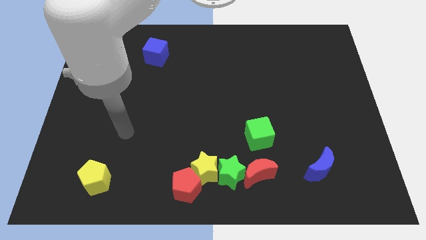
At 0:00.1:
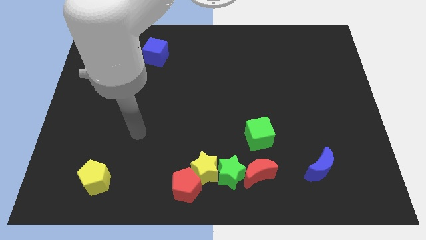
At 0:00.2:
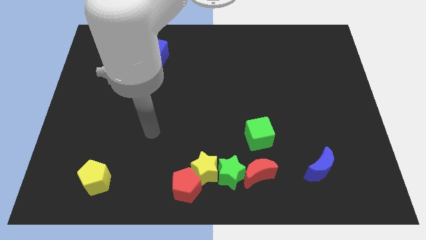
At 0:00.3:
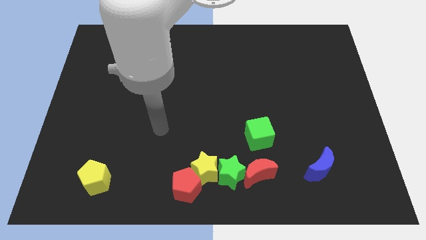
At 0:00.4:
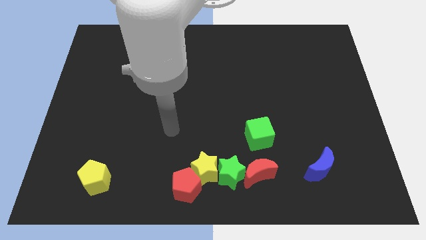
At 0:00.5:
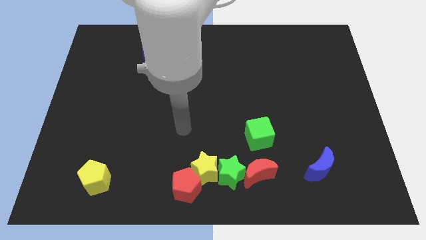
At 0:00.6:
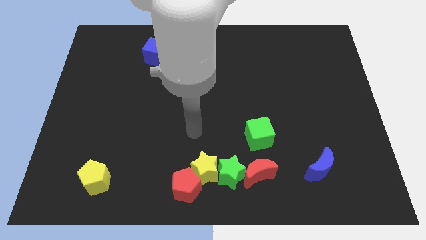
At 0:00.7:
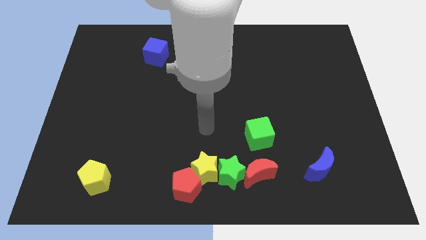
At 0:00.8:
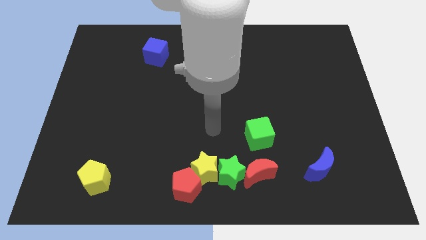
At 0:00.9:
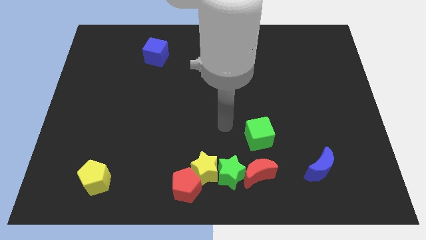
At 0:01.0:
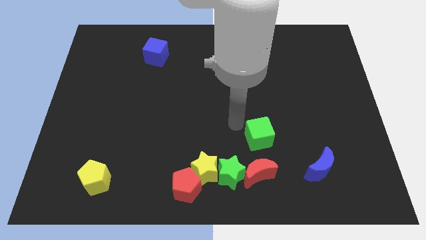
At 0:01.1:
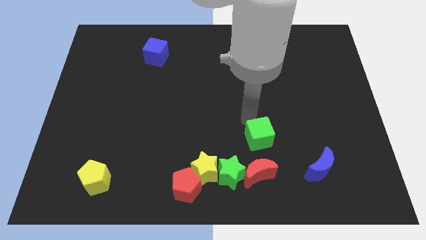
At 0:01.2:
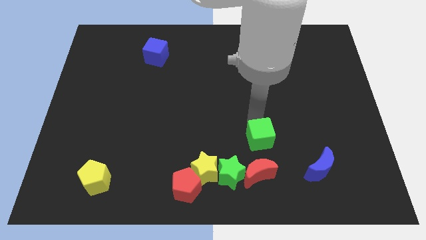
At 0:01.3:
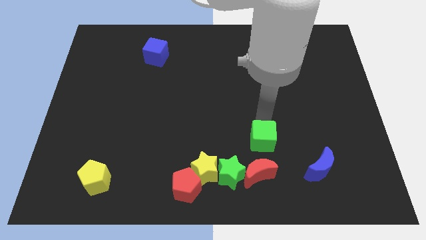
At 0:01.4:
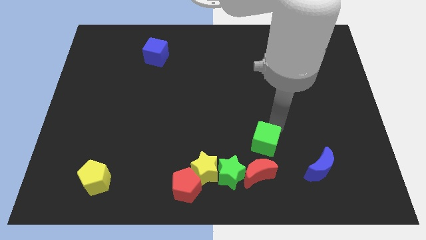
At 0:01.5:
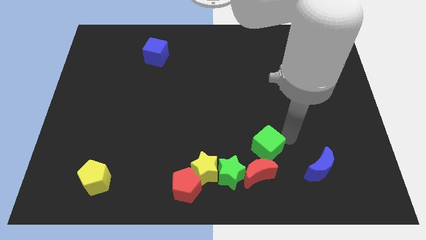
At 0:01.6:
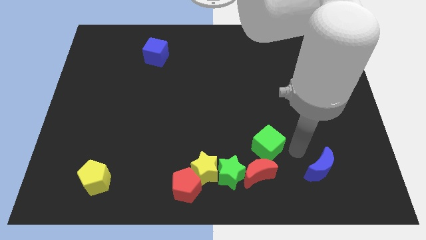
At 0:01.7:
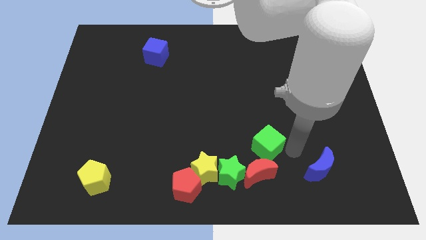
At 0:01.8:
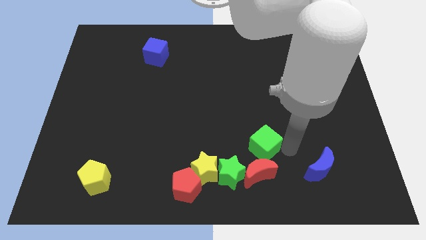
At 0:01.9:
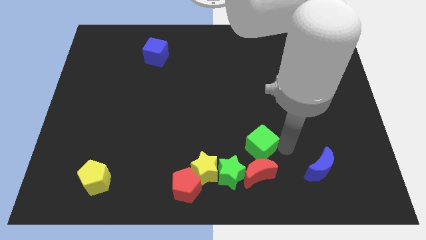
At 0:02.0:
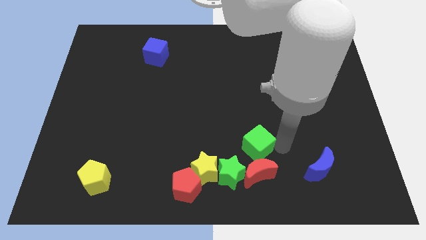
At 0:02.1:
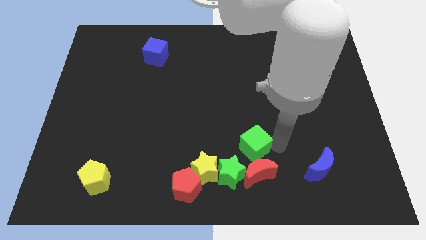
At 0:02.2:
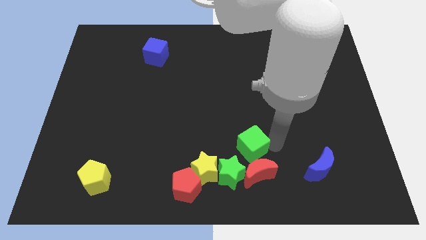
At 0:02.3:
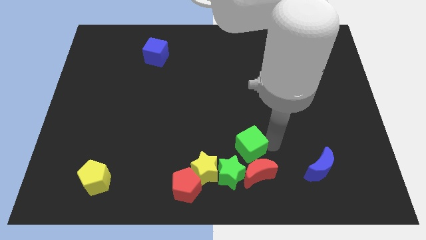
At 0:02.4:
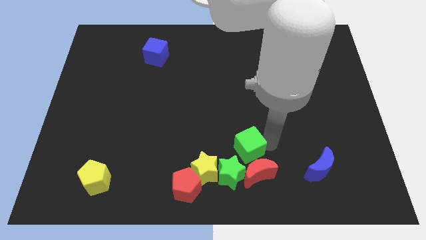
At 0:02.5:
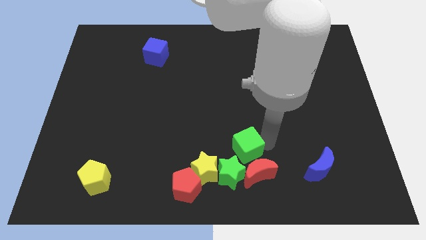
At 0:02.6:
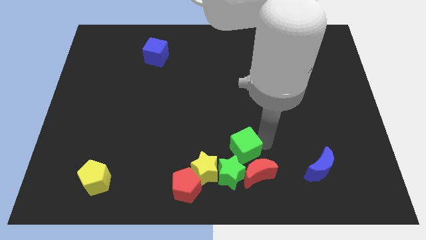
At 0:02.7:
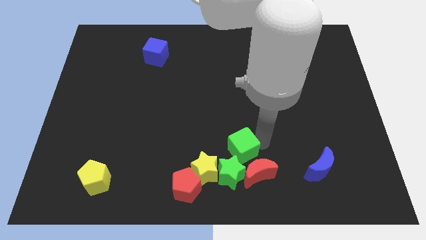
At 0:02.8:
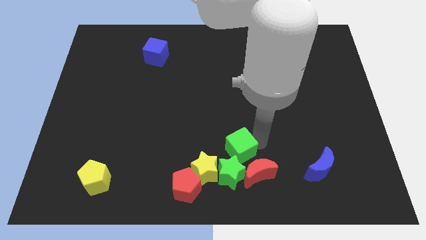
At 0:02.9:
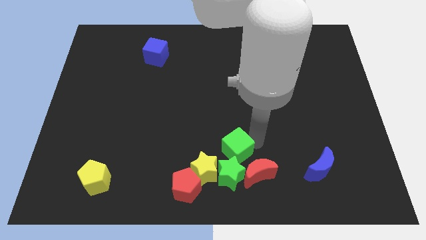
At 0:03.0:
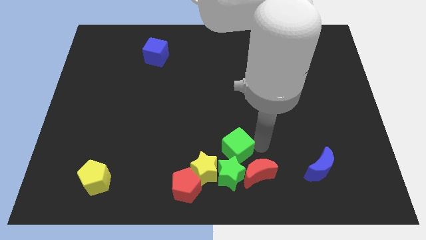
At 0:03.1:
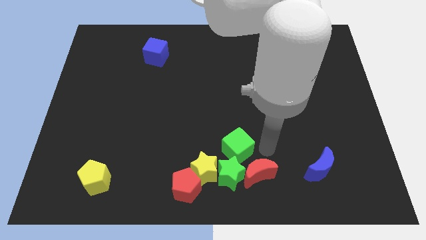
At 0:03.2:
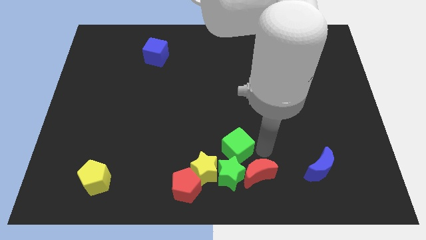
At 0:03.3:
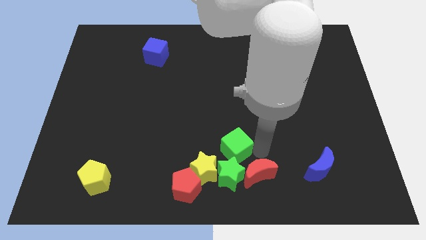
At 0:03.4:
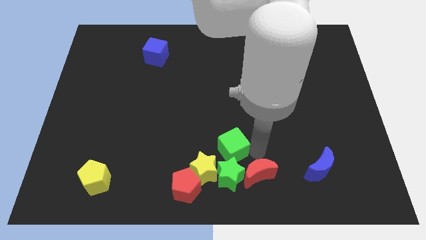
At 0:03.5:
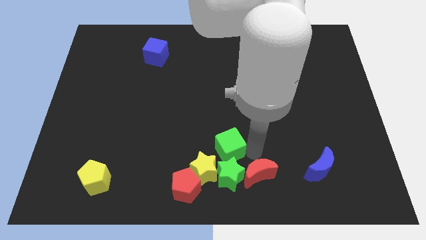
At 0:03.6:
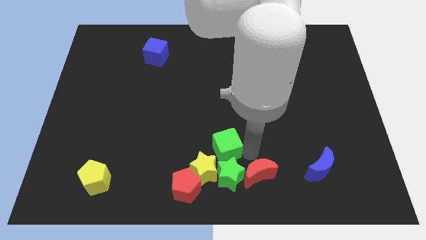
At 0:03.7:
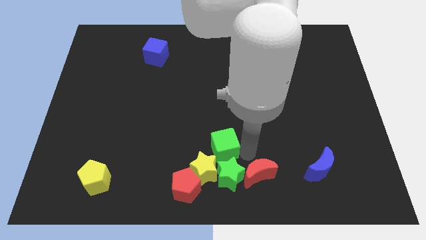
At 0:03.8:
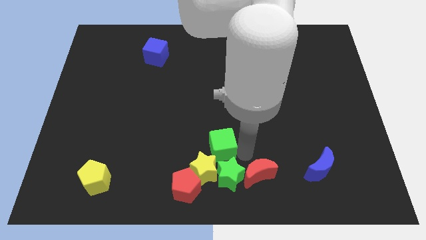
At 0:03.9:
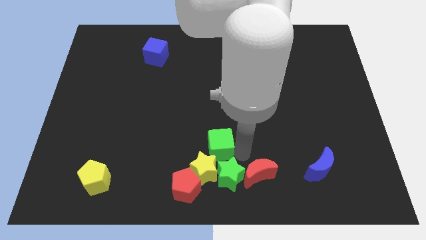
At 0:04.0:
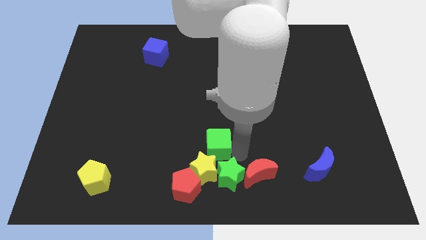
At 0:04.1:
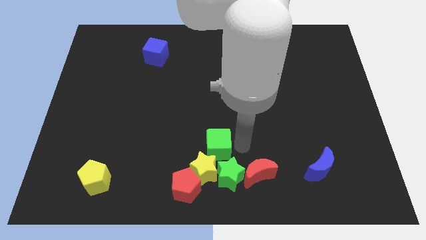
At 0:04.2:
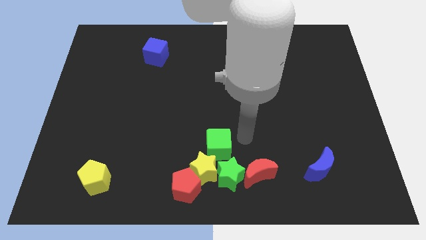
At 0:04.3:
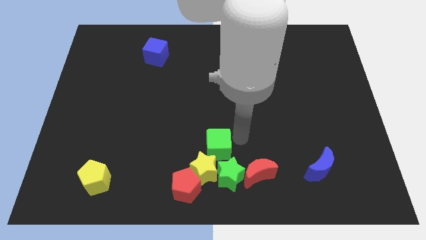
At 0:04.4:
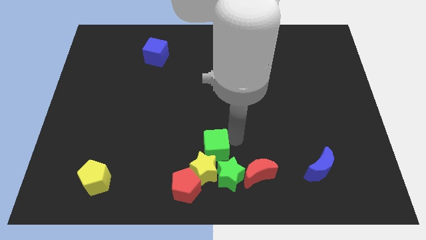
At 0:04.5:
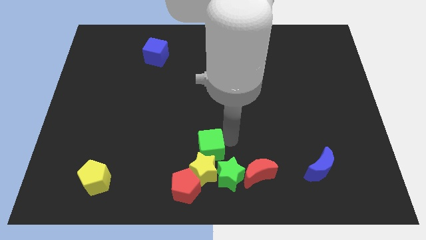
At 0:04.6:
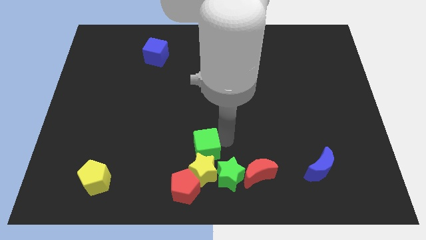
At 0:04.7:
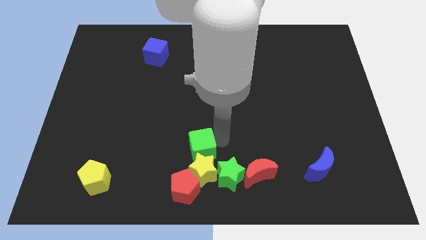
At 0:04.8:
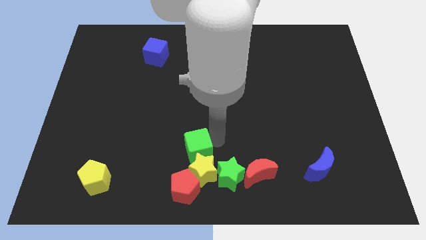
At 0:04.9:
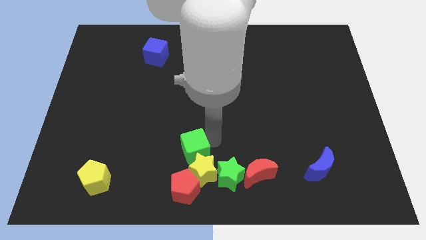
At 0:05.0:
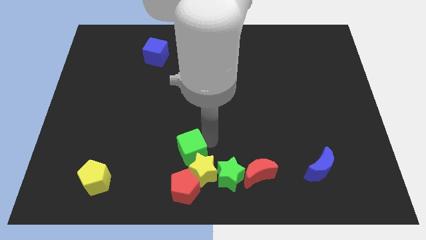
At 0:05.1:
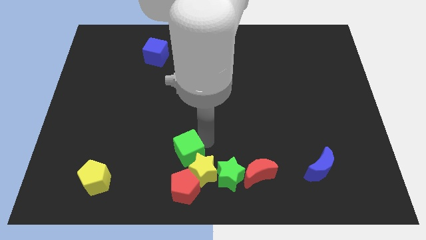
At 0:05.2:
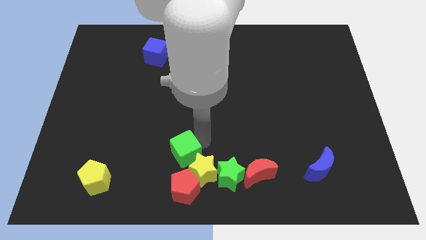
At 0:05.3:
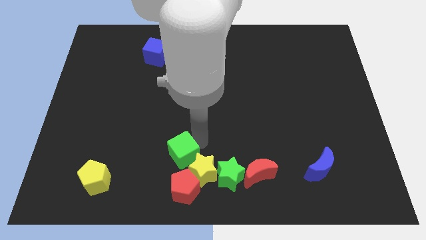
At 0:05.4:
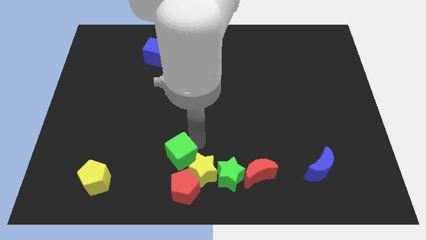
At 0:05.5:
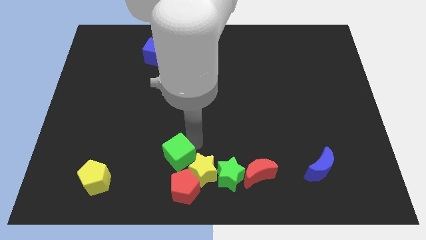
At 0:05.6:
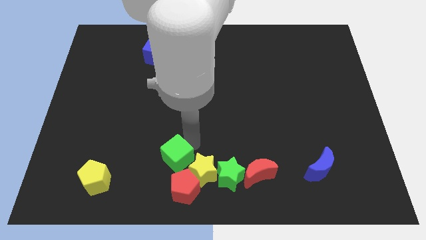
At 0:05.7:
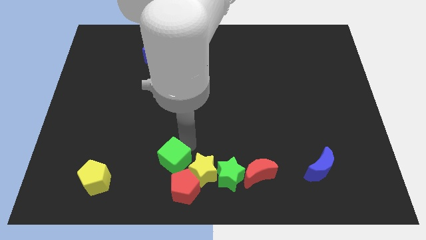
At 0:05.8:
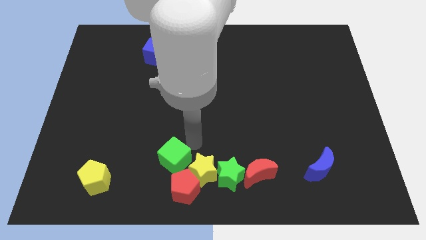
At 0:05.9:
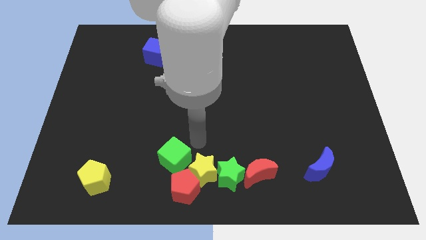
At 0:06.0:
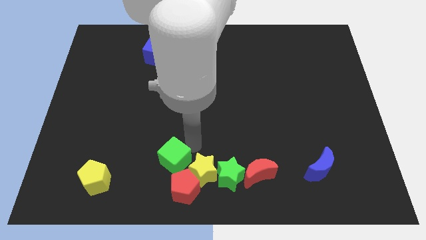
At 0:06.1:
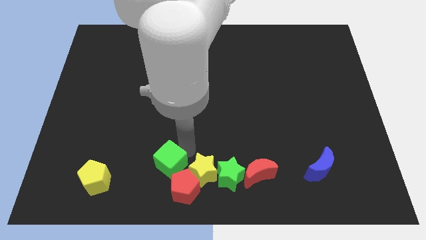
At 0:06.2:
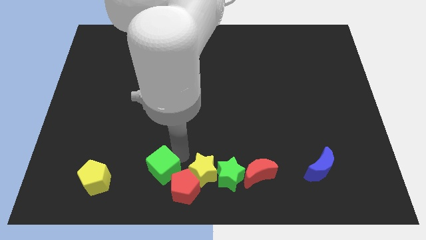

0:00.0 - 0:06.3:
put the green cube right of the yellow pentagon

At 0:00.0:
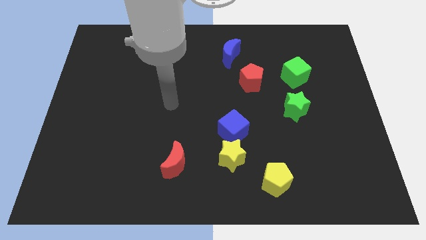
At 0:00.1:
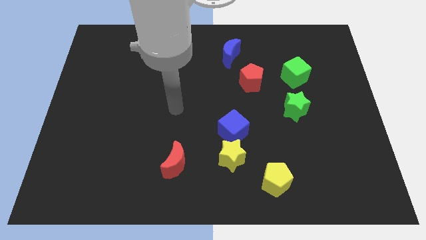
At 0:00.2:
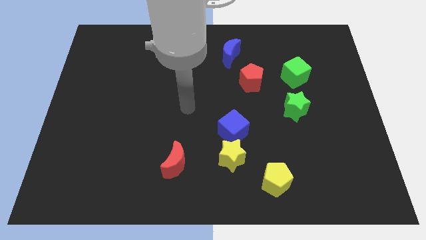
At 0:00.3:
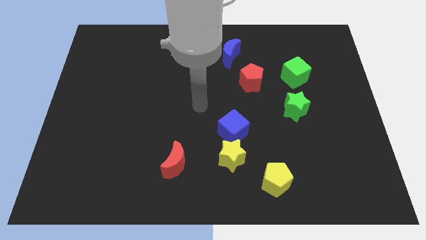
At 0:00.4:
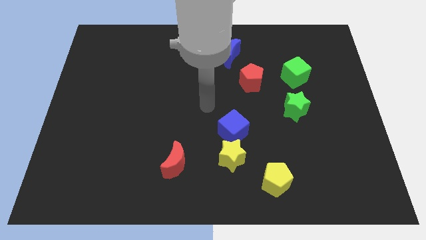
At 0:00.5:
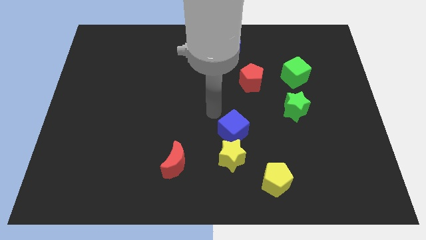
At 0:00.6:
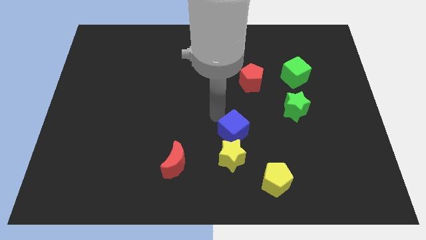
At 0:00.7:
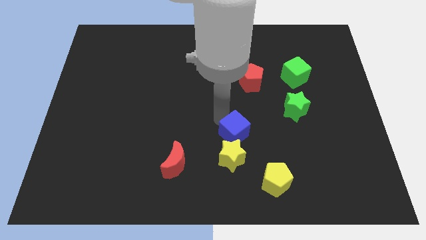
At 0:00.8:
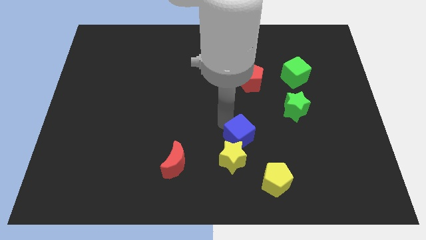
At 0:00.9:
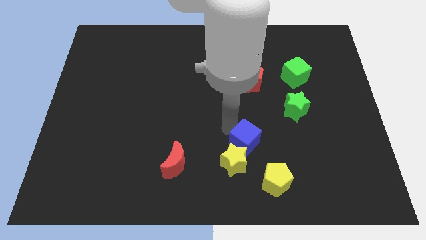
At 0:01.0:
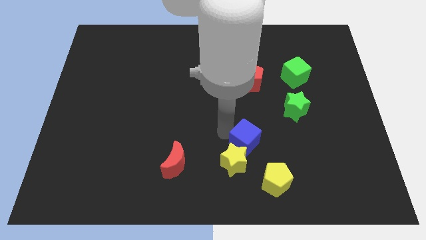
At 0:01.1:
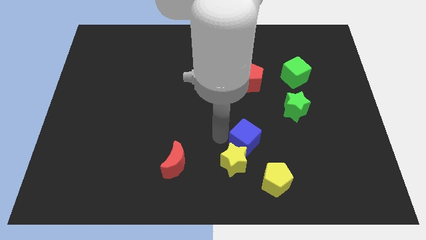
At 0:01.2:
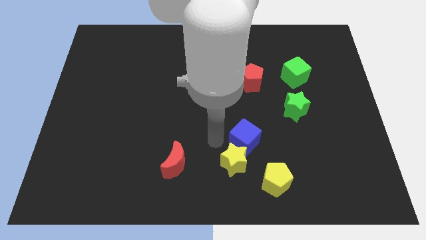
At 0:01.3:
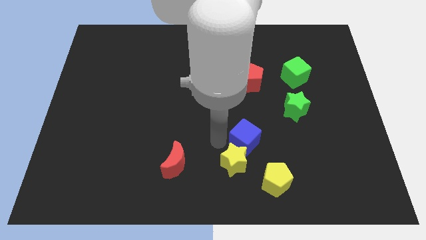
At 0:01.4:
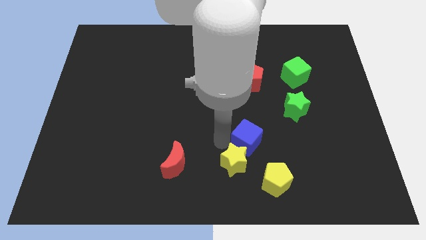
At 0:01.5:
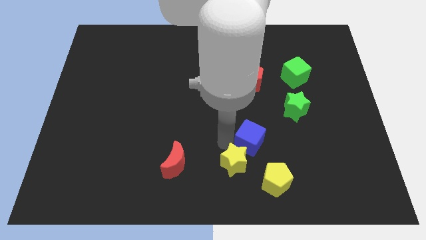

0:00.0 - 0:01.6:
move the blue cube to the top side of the yellow pentagon
